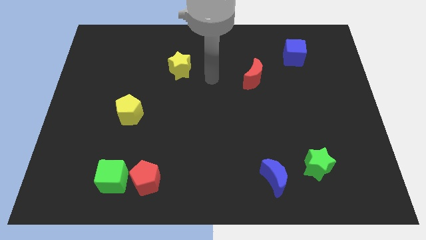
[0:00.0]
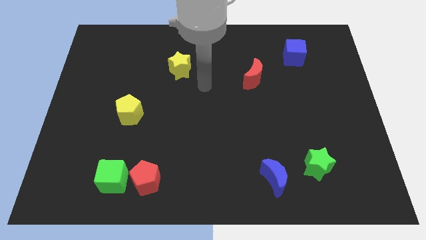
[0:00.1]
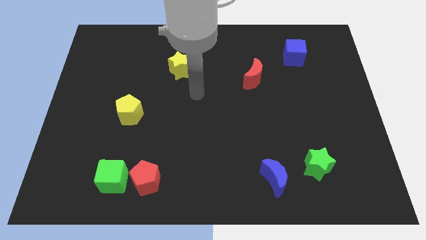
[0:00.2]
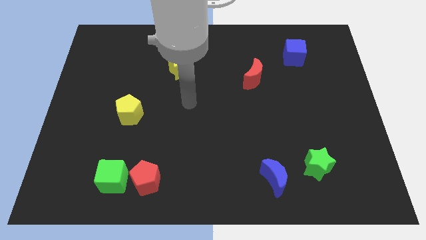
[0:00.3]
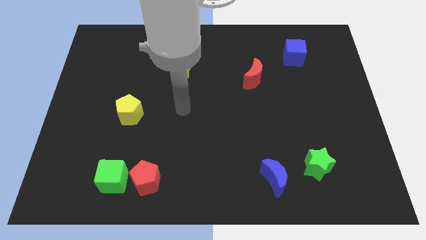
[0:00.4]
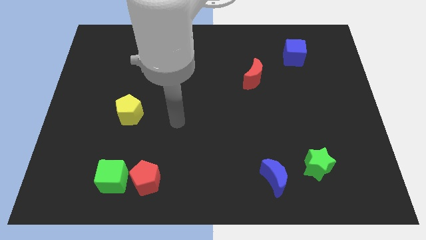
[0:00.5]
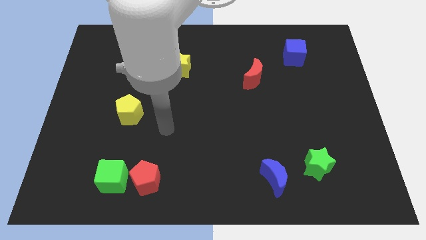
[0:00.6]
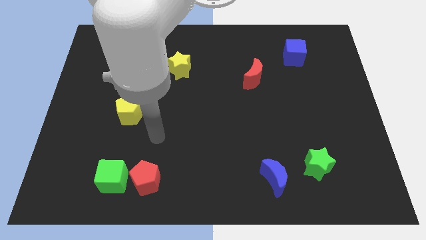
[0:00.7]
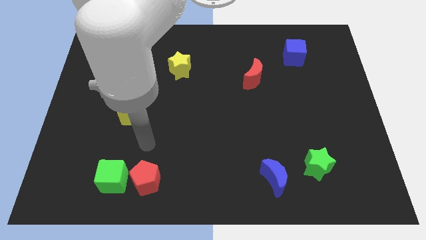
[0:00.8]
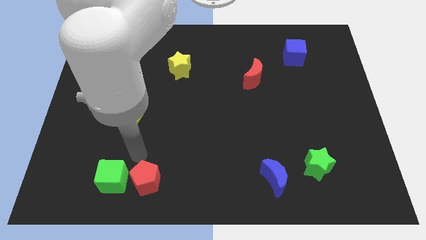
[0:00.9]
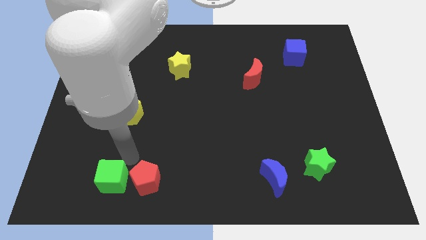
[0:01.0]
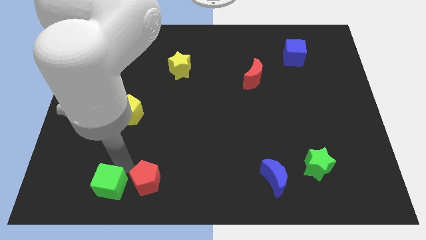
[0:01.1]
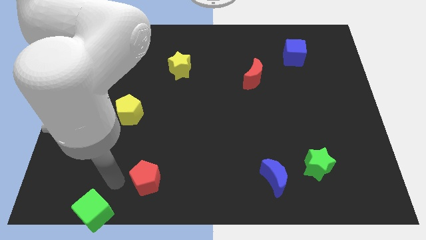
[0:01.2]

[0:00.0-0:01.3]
move the red pentagon away from the green cube

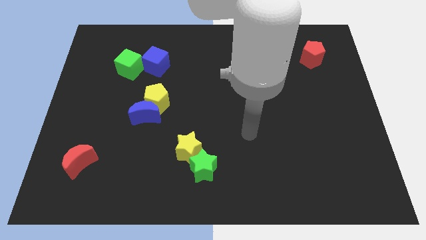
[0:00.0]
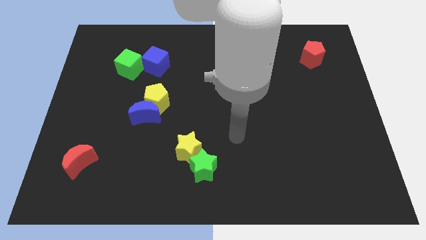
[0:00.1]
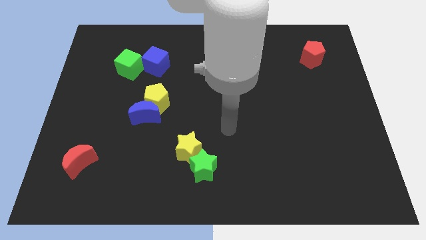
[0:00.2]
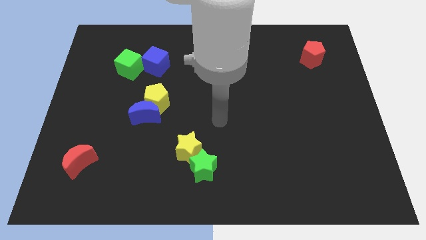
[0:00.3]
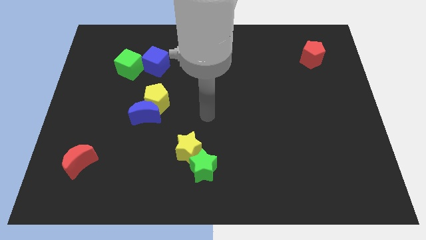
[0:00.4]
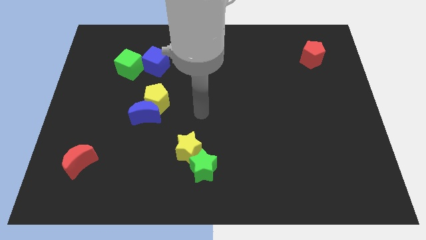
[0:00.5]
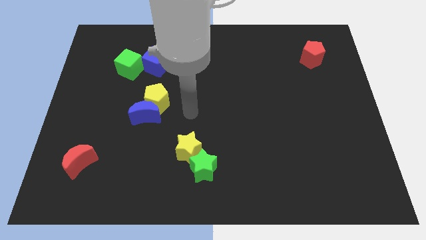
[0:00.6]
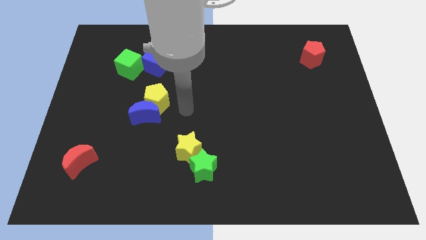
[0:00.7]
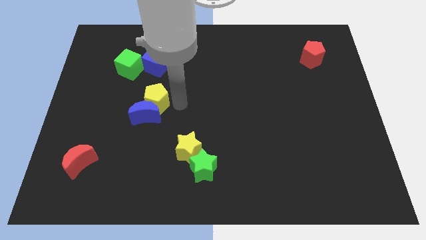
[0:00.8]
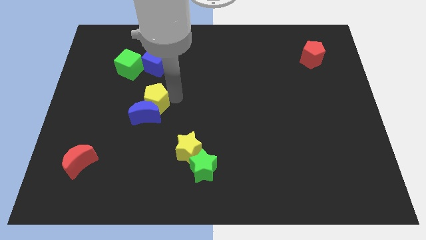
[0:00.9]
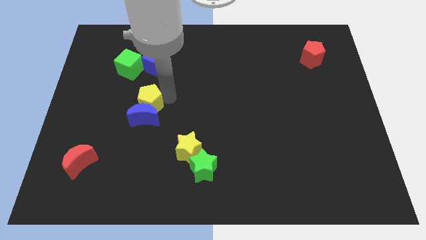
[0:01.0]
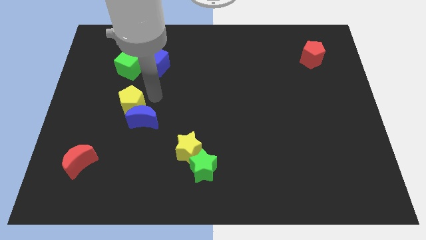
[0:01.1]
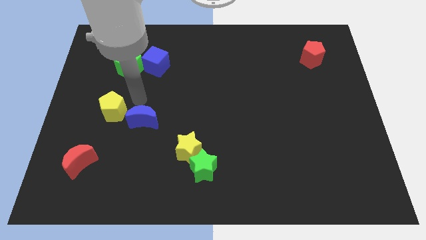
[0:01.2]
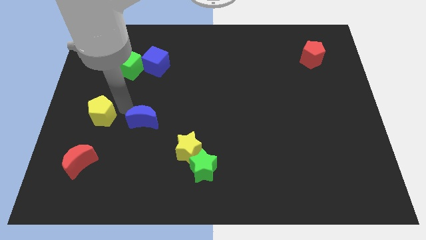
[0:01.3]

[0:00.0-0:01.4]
separate the blue moon from the yellow pentagon

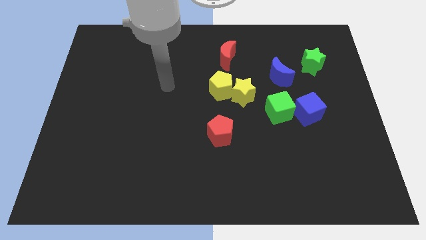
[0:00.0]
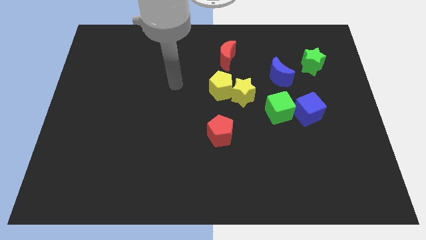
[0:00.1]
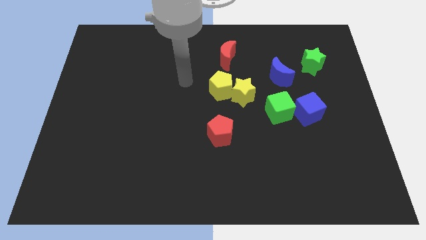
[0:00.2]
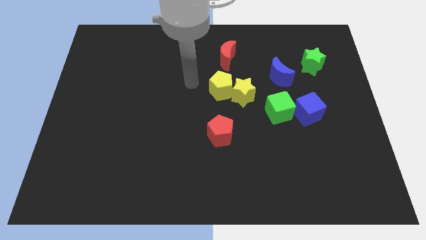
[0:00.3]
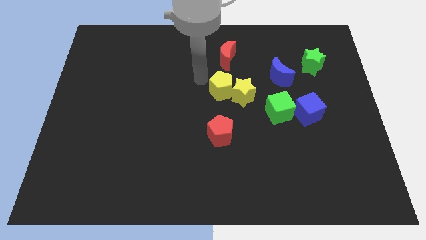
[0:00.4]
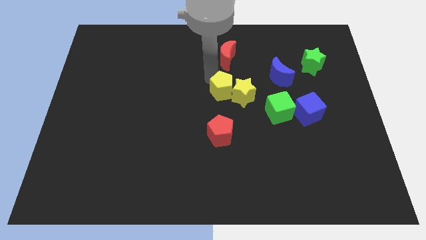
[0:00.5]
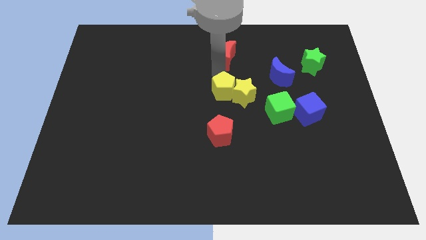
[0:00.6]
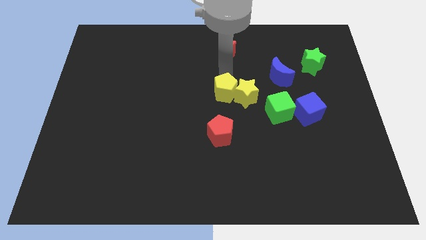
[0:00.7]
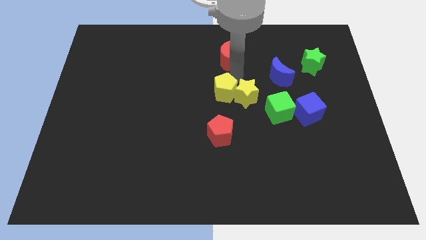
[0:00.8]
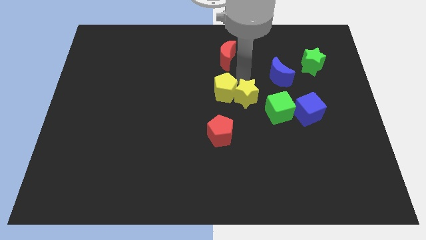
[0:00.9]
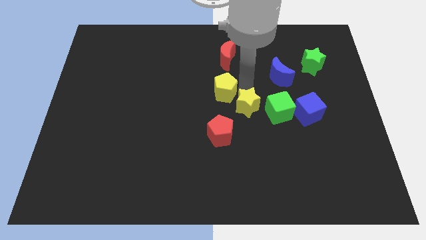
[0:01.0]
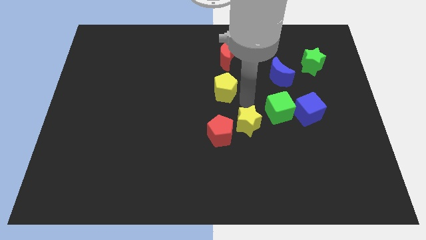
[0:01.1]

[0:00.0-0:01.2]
pull the yellow pentagon apart from the yellow star

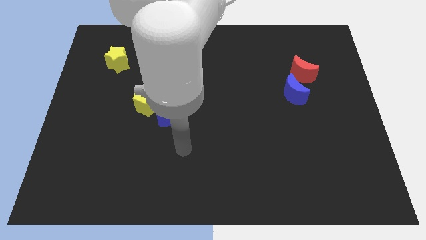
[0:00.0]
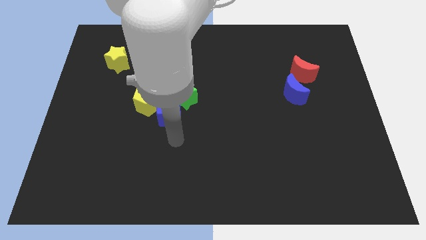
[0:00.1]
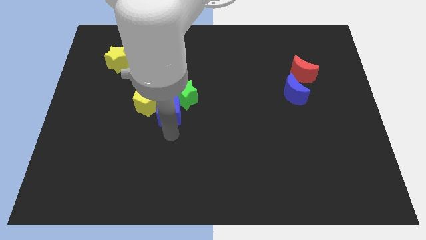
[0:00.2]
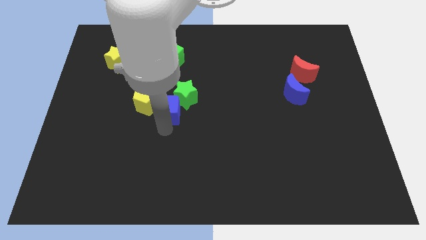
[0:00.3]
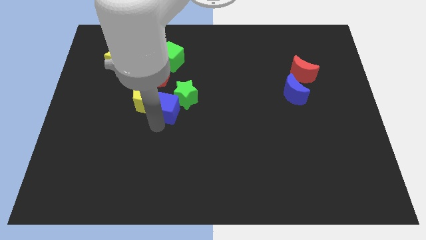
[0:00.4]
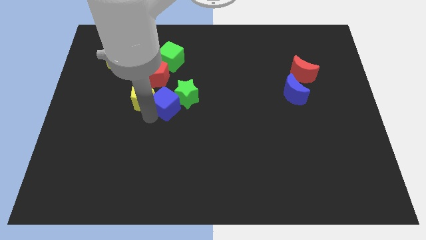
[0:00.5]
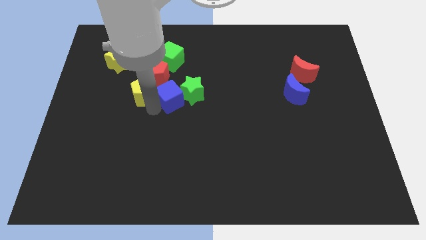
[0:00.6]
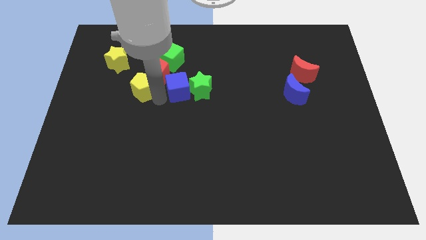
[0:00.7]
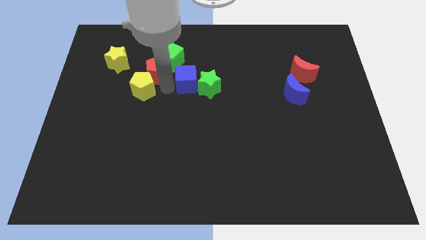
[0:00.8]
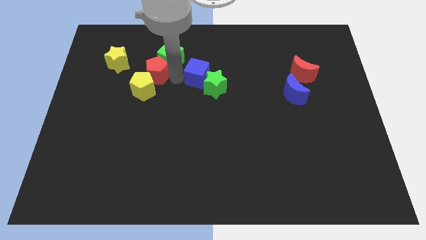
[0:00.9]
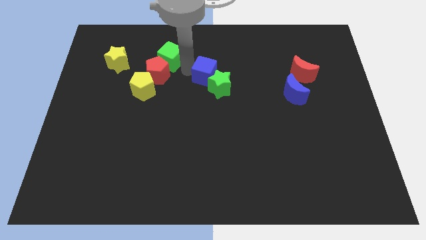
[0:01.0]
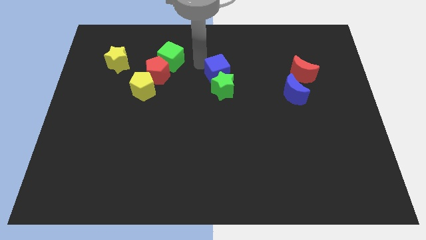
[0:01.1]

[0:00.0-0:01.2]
pull the blue cube apart from the green star and yellow pentagon

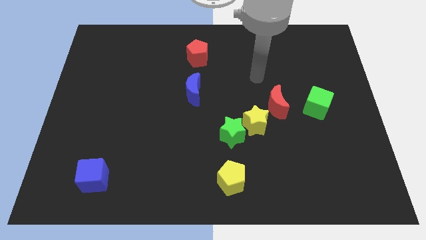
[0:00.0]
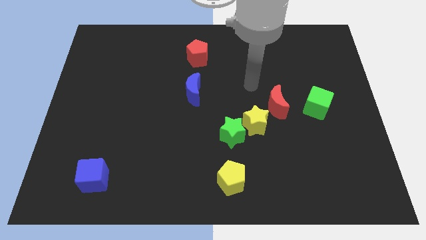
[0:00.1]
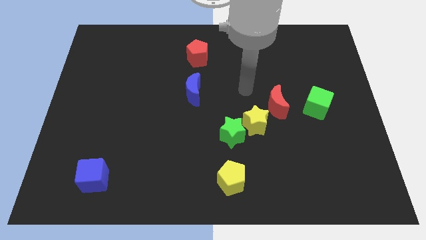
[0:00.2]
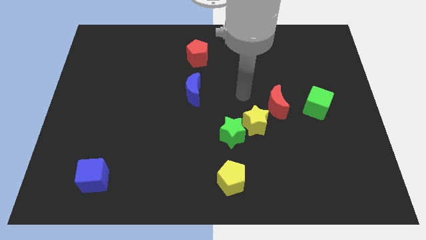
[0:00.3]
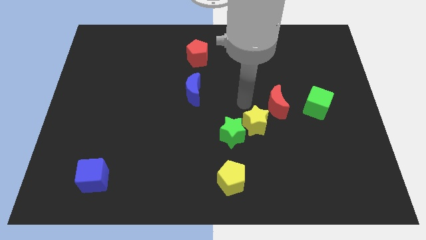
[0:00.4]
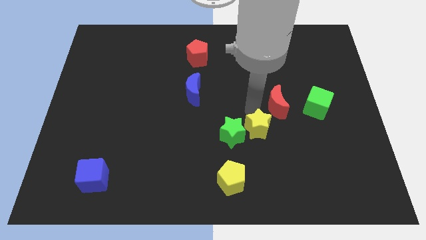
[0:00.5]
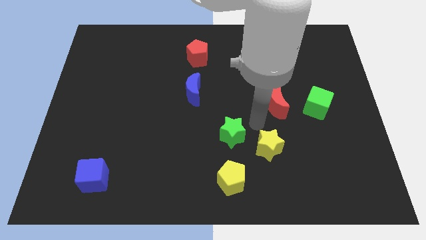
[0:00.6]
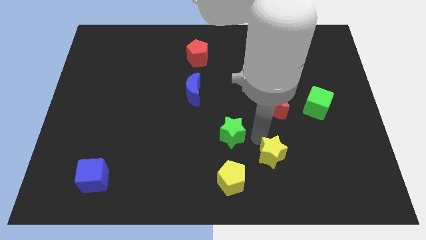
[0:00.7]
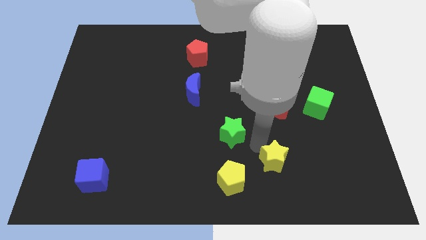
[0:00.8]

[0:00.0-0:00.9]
pull the green star apart from the yellow star

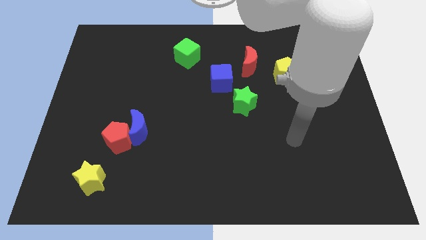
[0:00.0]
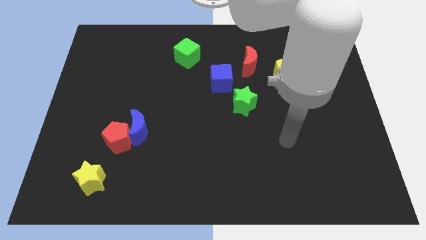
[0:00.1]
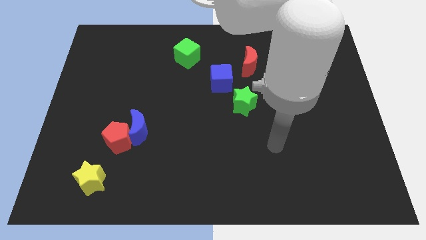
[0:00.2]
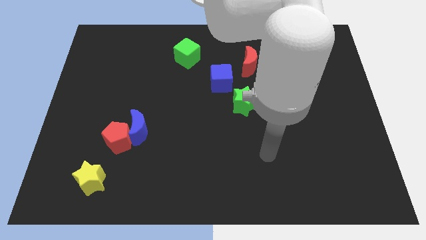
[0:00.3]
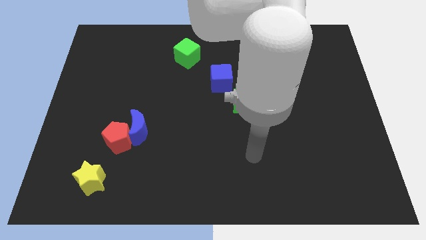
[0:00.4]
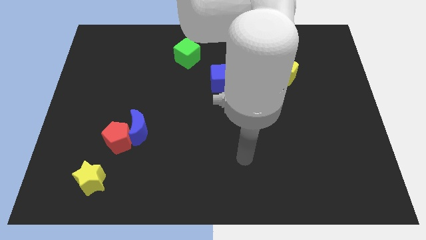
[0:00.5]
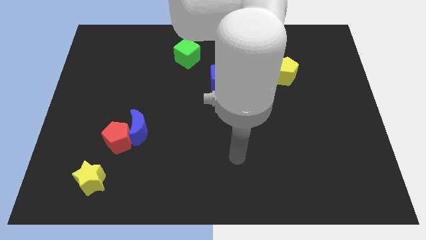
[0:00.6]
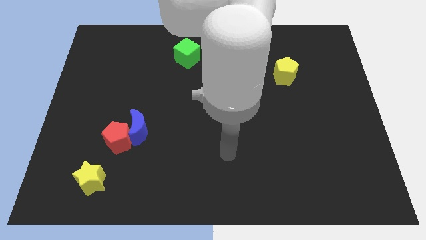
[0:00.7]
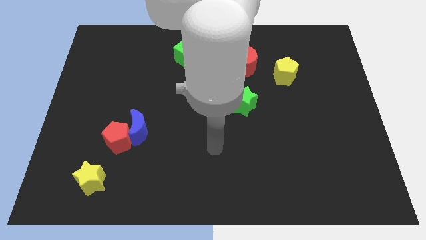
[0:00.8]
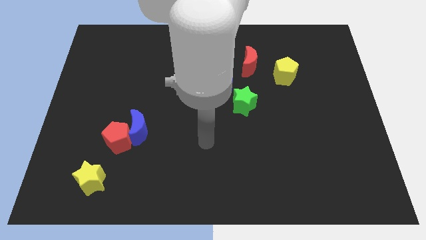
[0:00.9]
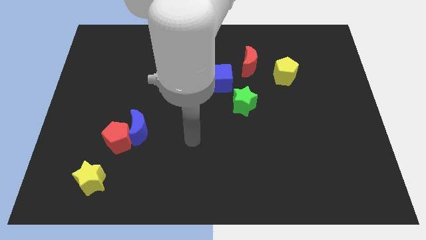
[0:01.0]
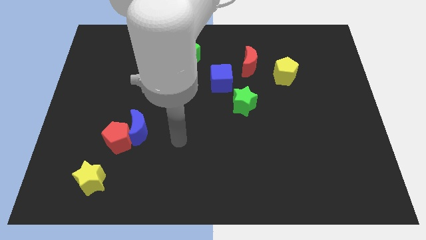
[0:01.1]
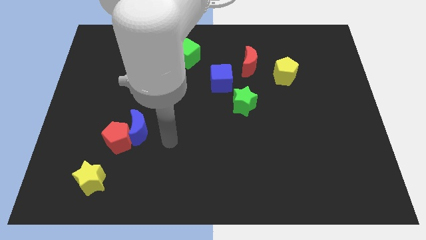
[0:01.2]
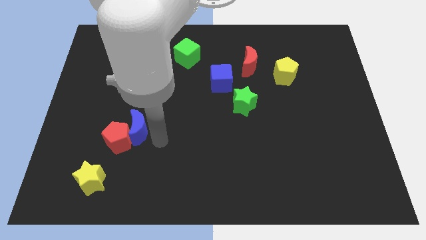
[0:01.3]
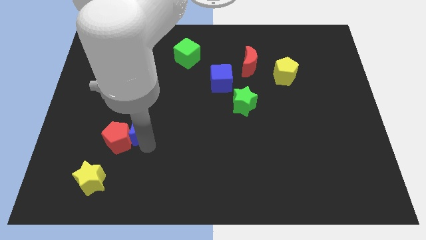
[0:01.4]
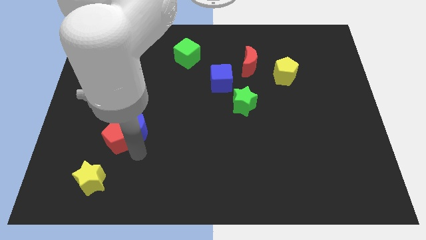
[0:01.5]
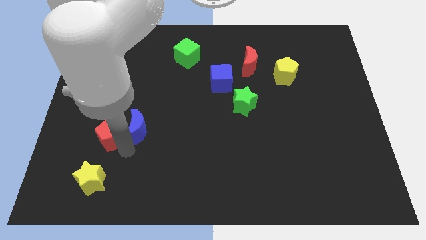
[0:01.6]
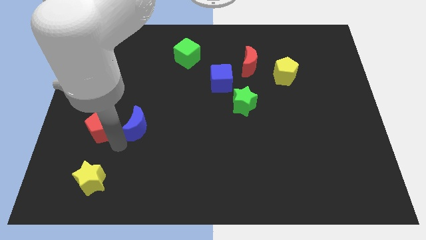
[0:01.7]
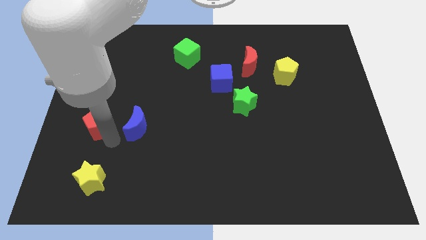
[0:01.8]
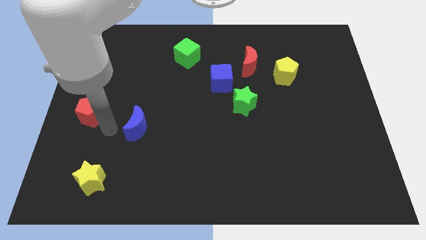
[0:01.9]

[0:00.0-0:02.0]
separate the blue moon from the red pentagon

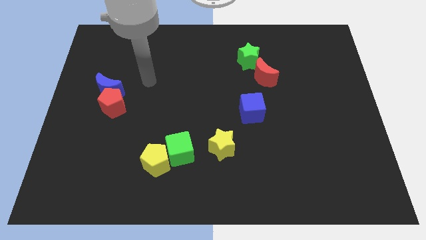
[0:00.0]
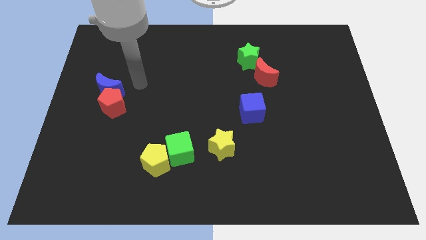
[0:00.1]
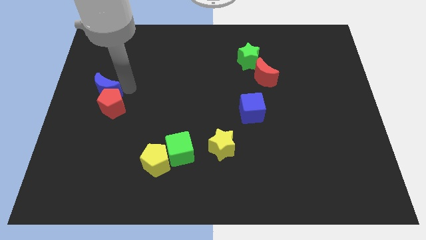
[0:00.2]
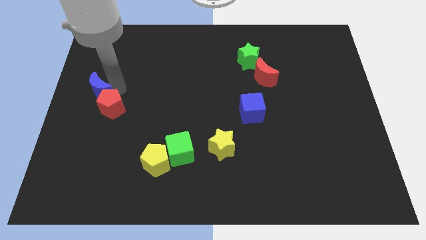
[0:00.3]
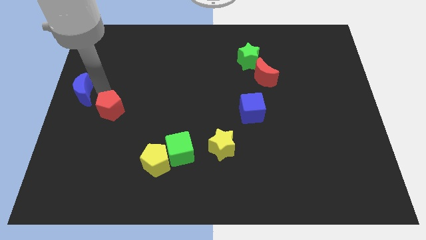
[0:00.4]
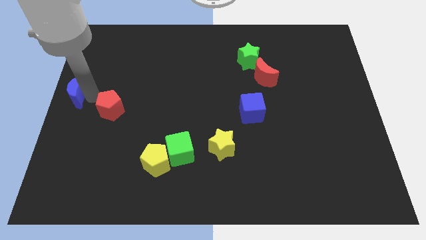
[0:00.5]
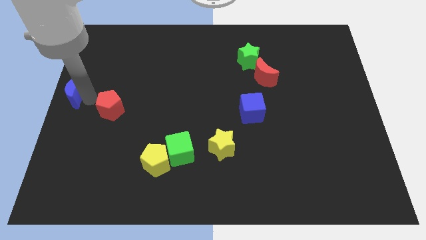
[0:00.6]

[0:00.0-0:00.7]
separate the red pentagon from the blue moon

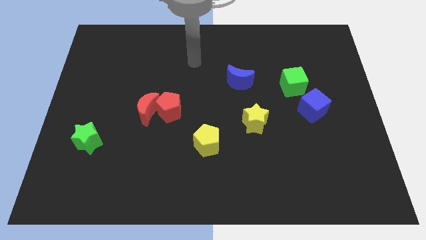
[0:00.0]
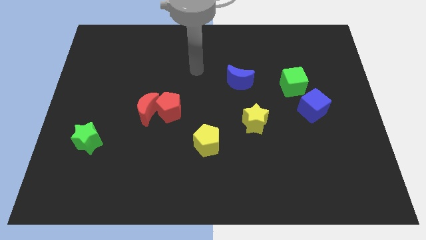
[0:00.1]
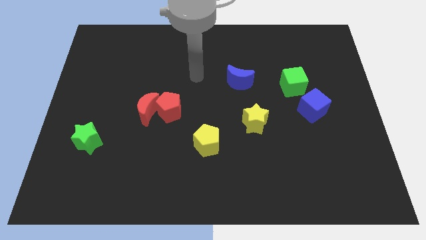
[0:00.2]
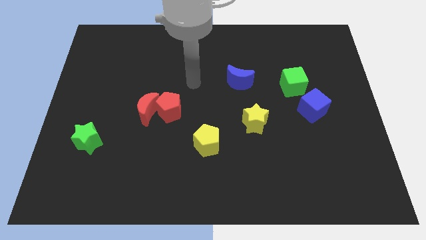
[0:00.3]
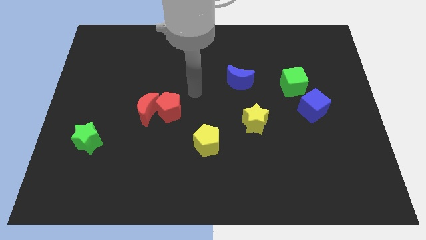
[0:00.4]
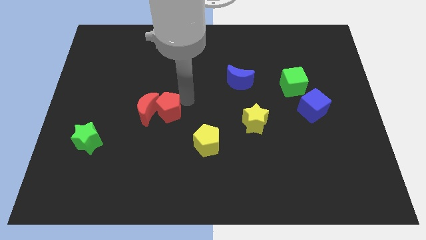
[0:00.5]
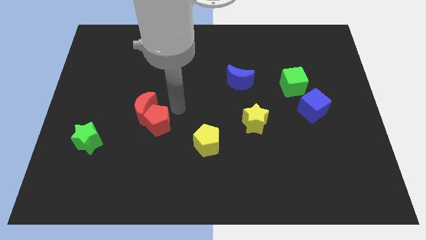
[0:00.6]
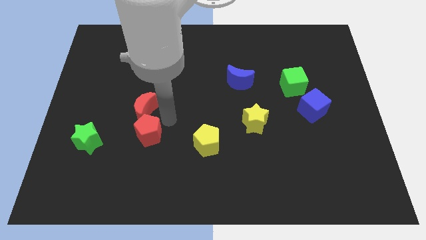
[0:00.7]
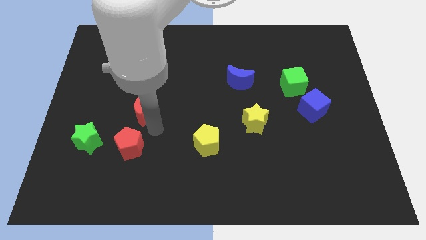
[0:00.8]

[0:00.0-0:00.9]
separate the red moon from the red pentagon
